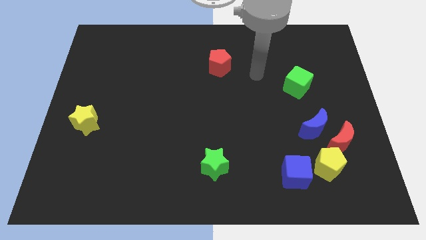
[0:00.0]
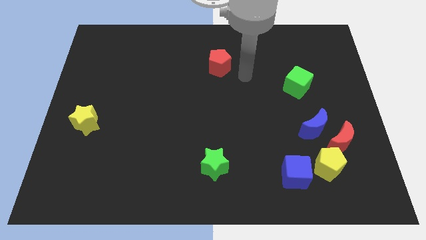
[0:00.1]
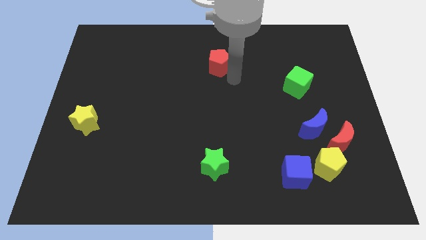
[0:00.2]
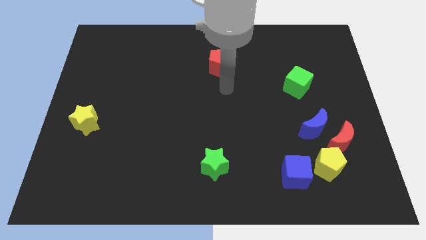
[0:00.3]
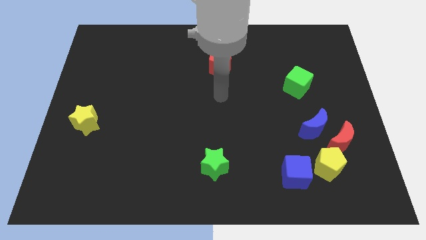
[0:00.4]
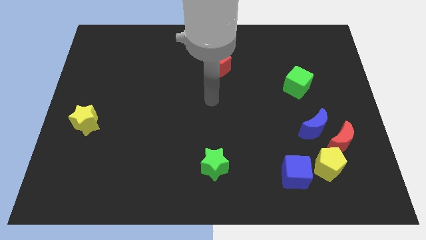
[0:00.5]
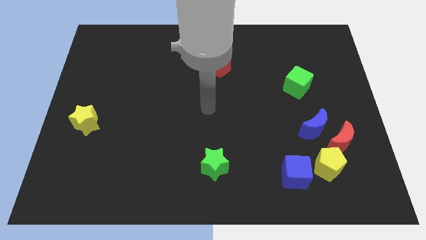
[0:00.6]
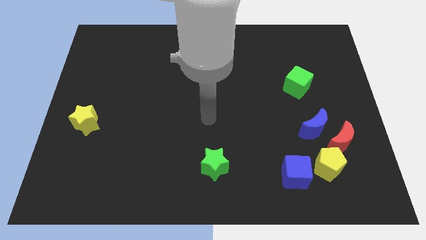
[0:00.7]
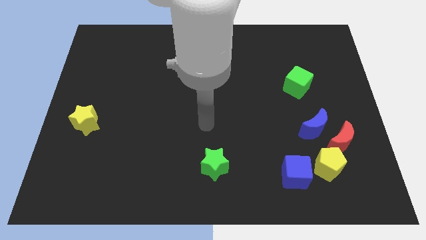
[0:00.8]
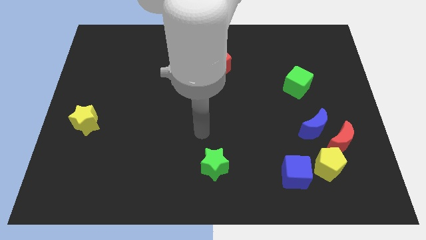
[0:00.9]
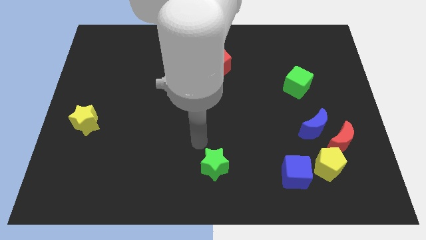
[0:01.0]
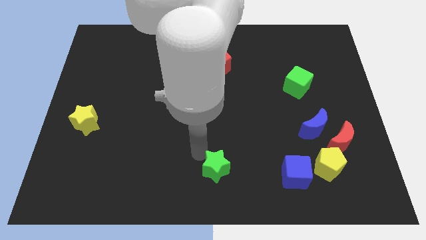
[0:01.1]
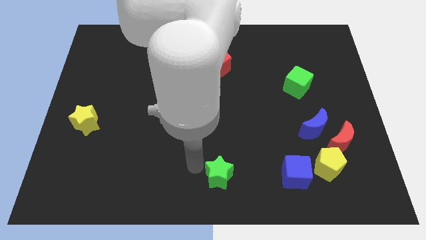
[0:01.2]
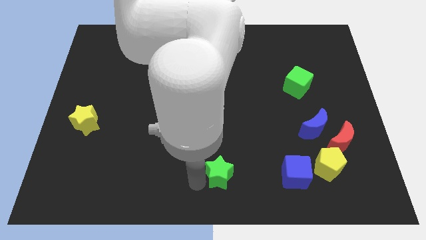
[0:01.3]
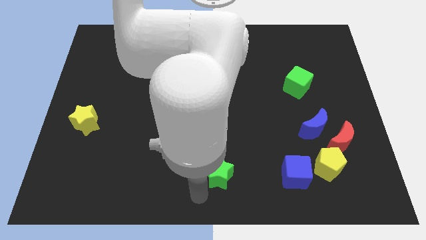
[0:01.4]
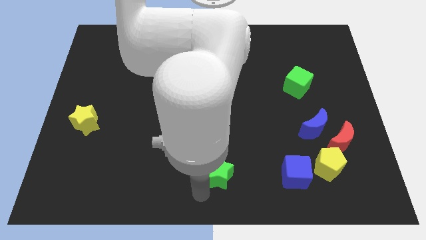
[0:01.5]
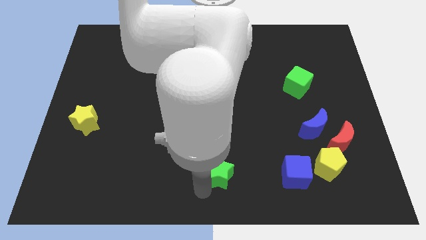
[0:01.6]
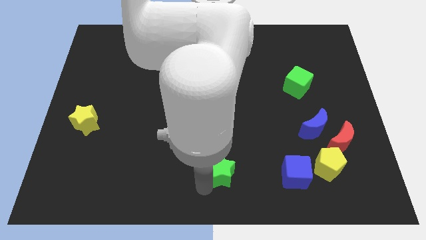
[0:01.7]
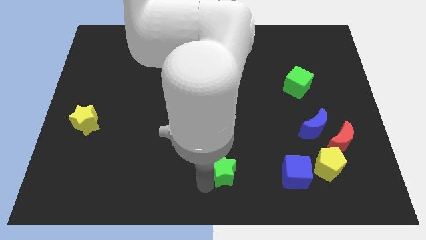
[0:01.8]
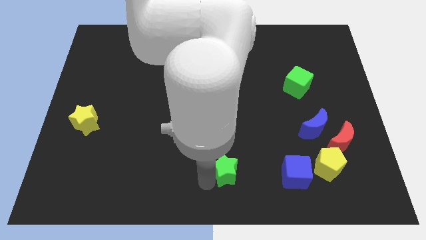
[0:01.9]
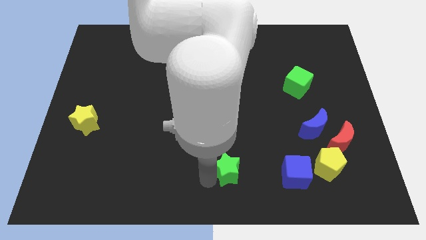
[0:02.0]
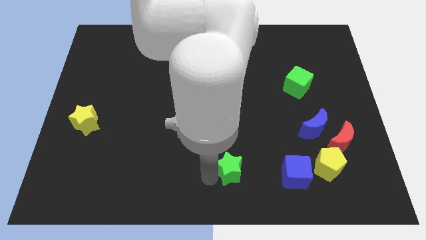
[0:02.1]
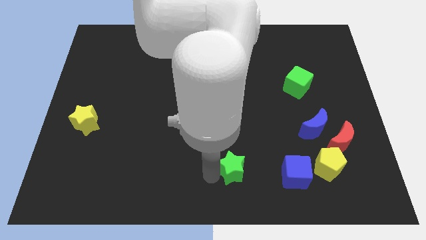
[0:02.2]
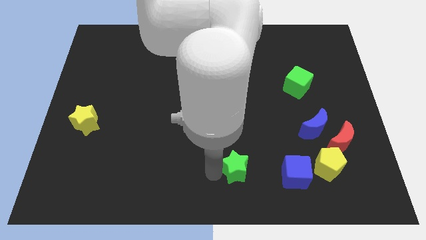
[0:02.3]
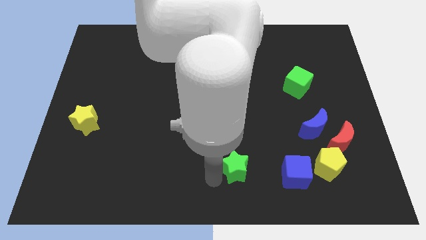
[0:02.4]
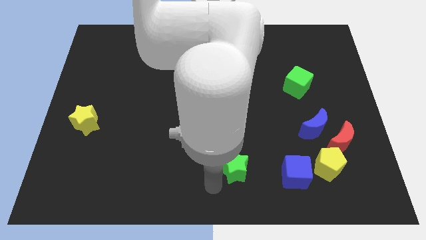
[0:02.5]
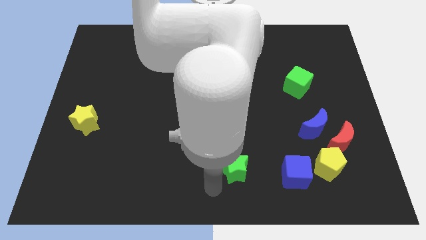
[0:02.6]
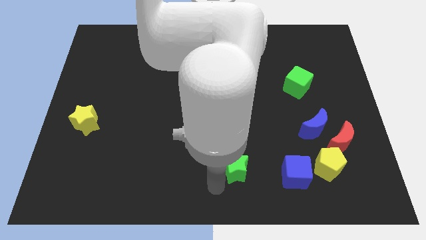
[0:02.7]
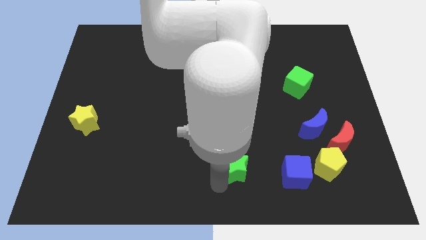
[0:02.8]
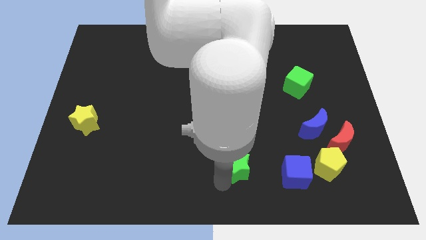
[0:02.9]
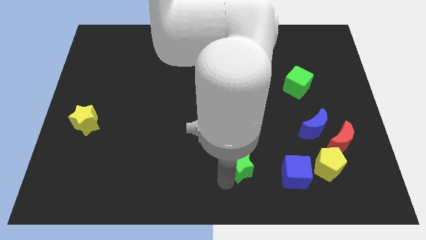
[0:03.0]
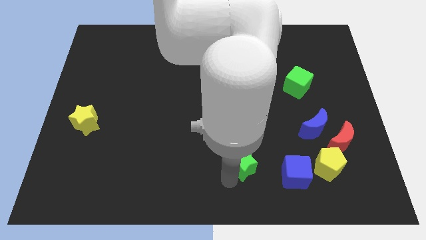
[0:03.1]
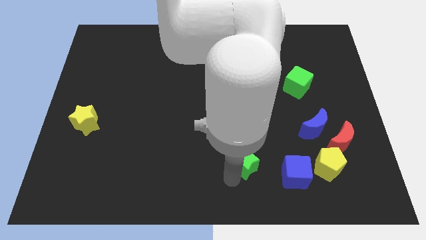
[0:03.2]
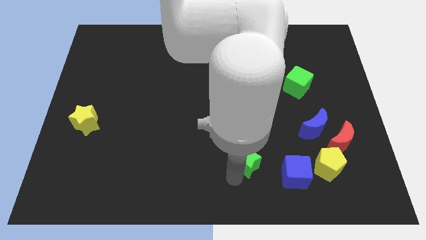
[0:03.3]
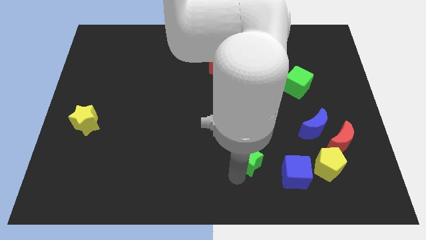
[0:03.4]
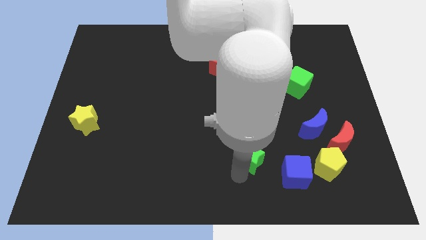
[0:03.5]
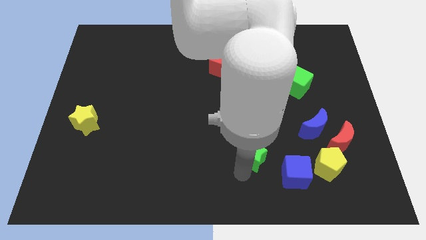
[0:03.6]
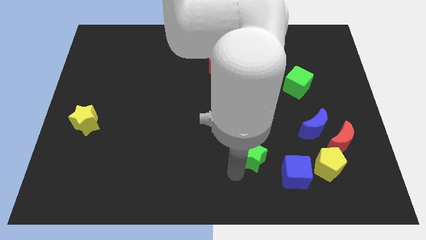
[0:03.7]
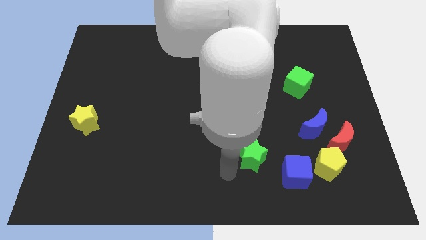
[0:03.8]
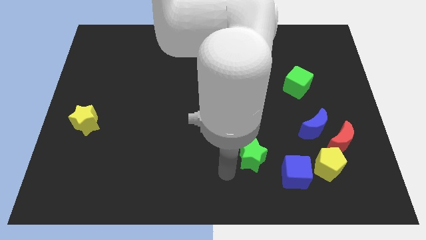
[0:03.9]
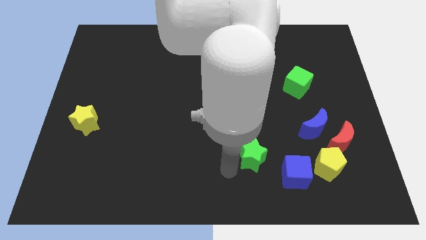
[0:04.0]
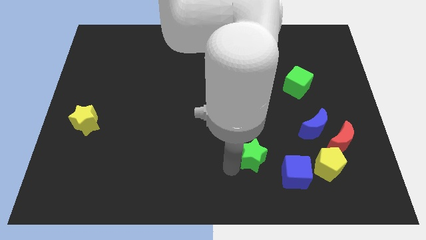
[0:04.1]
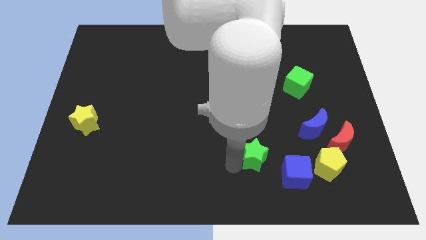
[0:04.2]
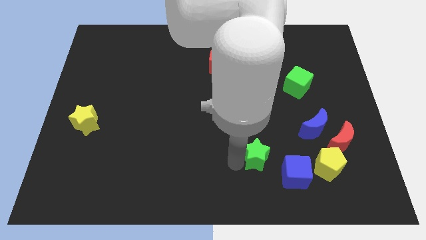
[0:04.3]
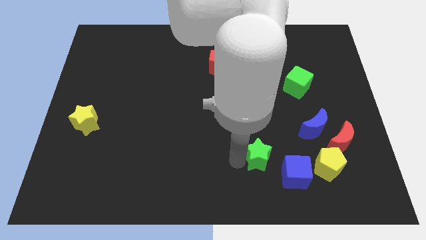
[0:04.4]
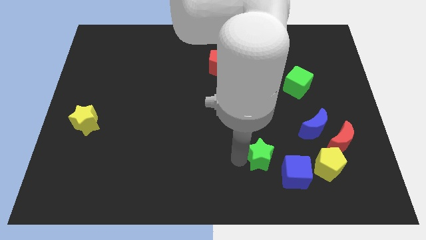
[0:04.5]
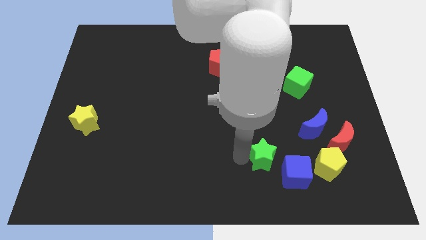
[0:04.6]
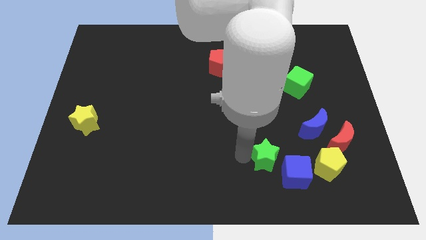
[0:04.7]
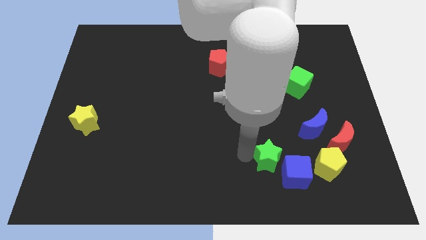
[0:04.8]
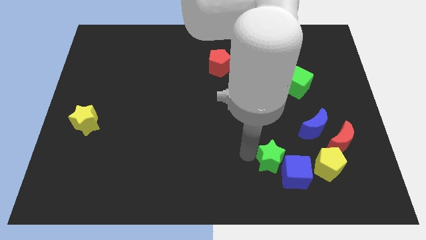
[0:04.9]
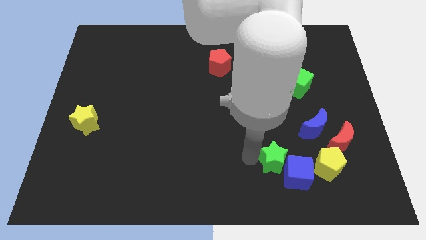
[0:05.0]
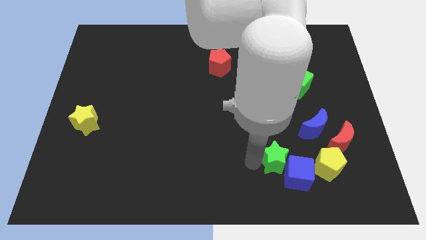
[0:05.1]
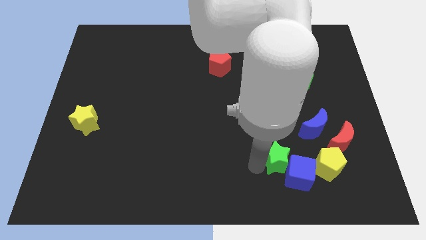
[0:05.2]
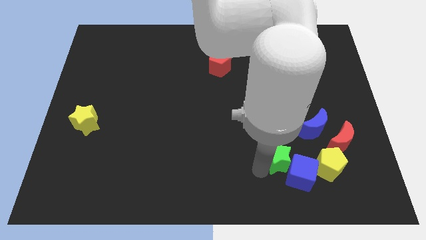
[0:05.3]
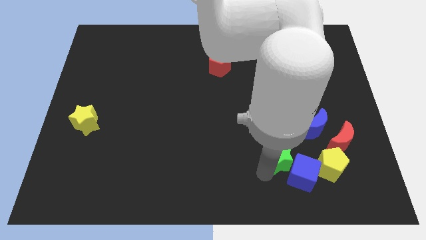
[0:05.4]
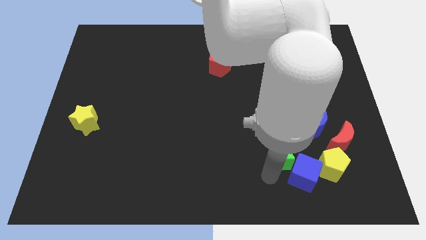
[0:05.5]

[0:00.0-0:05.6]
put the green star to the left of the red moon

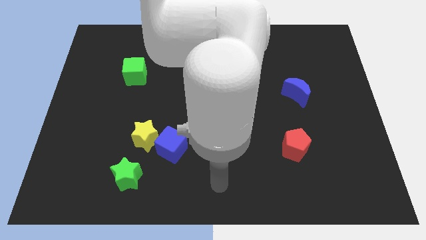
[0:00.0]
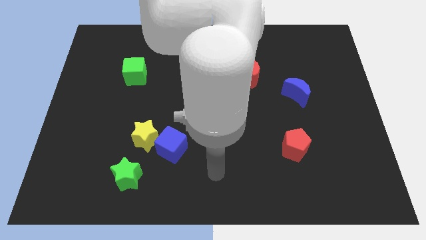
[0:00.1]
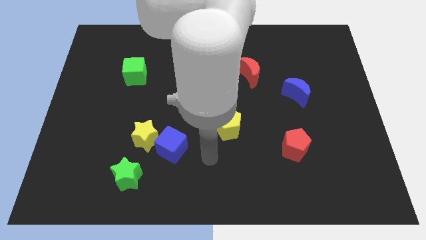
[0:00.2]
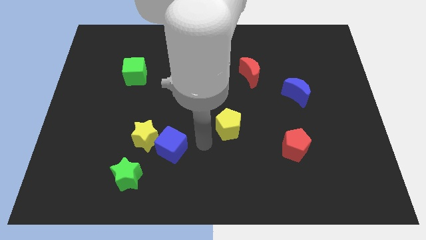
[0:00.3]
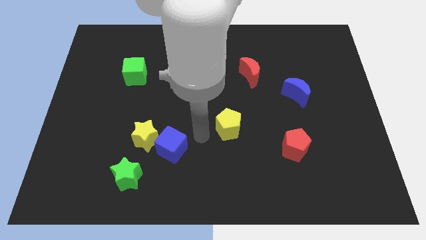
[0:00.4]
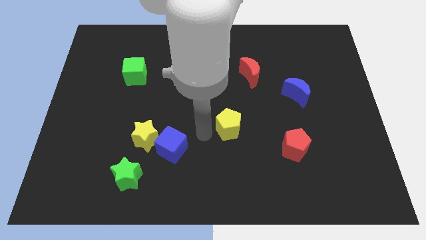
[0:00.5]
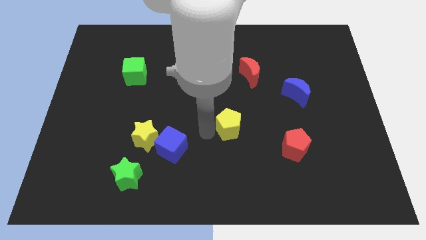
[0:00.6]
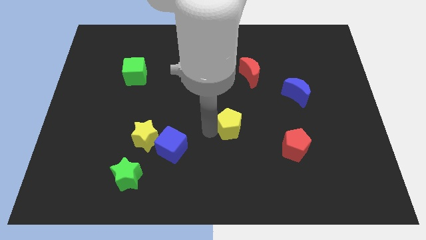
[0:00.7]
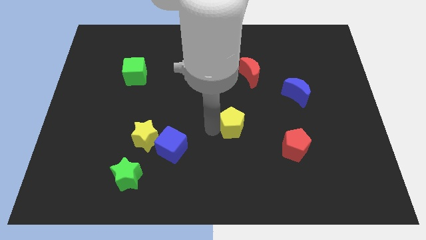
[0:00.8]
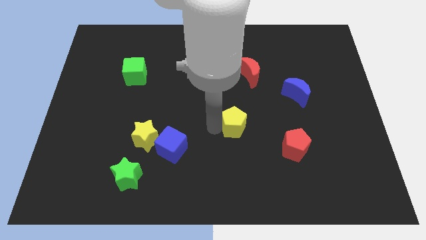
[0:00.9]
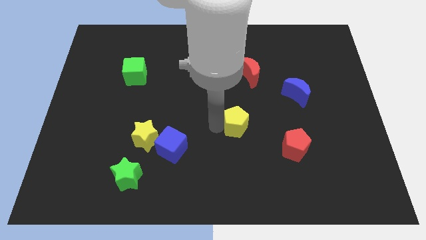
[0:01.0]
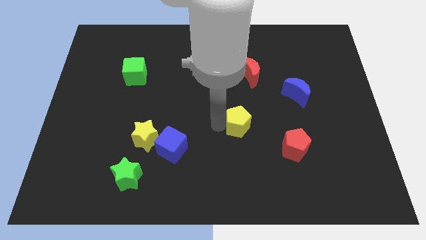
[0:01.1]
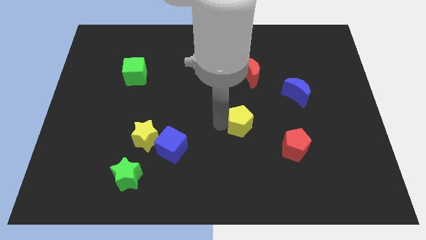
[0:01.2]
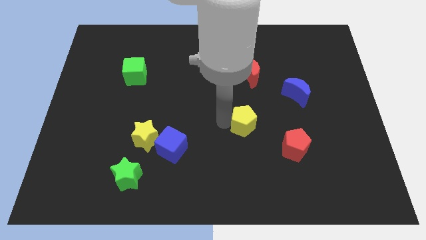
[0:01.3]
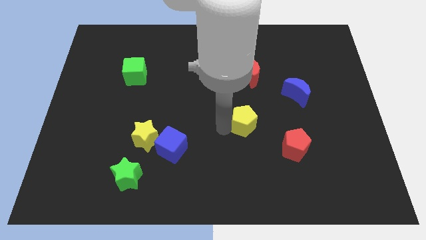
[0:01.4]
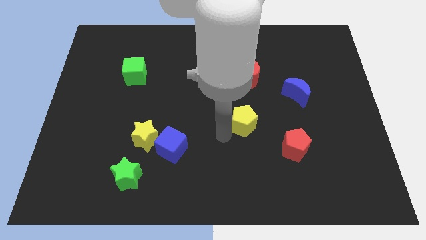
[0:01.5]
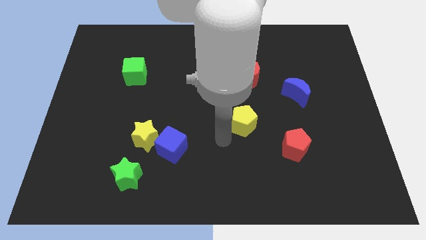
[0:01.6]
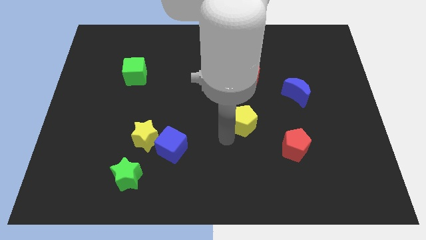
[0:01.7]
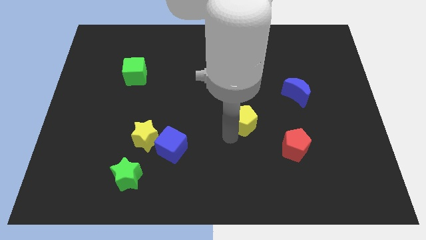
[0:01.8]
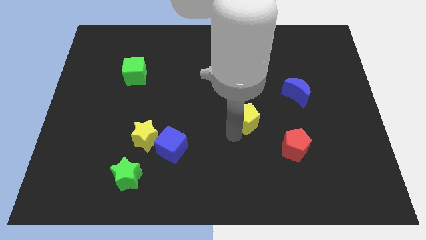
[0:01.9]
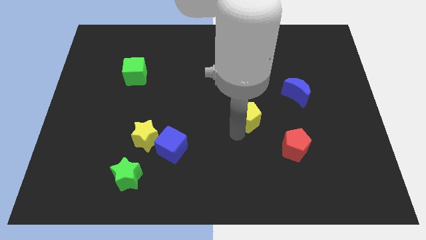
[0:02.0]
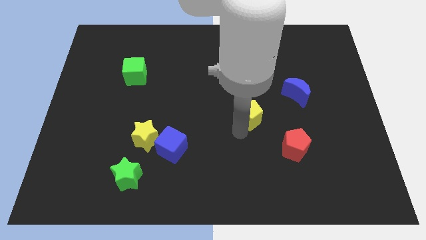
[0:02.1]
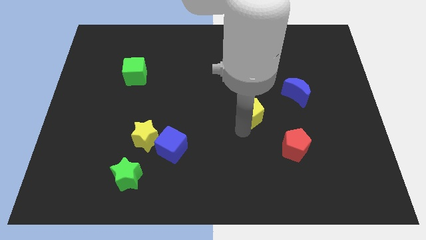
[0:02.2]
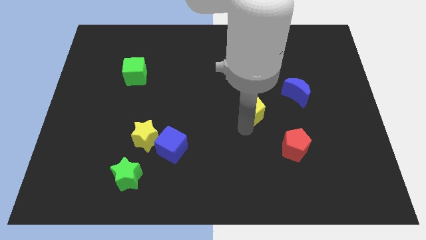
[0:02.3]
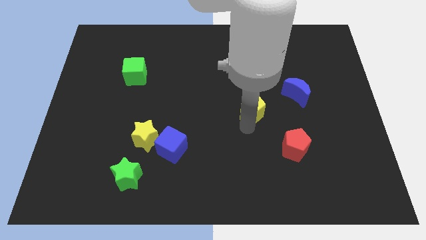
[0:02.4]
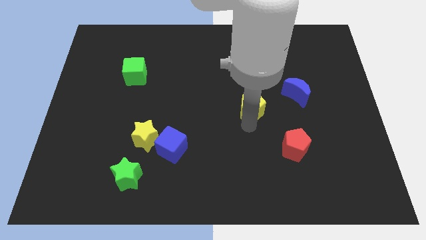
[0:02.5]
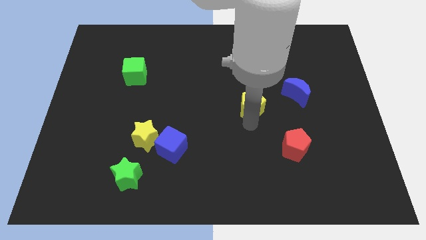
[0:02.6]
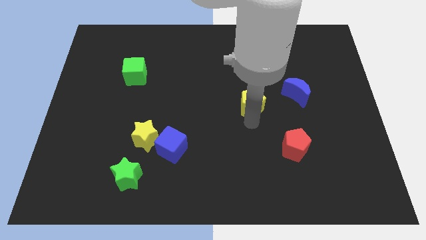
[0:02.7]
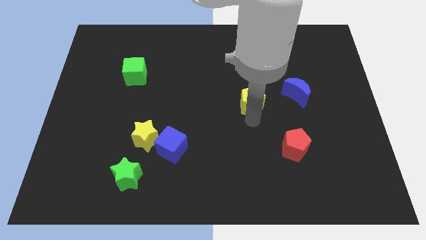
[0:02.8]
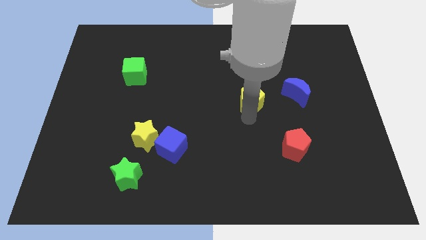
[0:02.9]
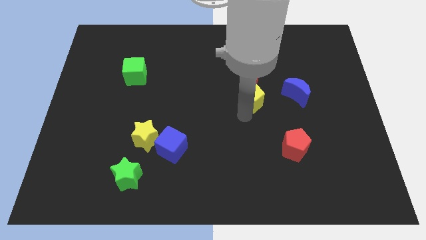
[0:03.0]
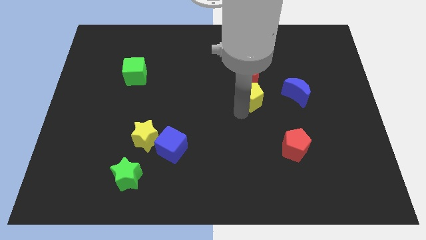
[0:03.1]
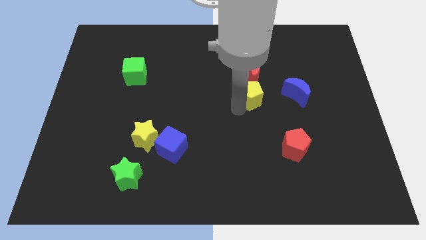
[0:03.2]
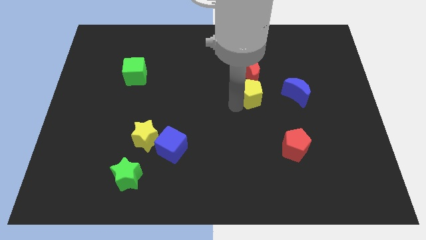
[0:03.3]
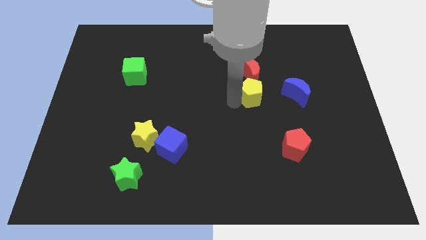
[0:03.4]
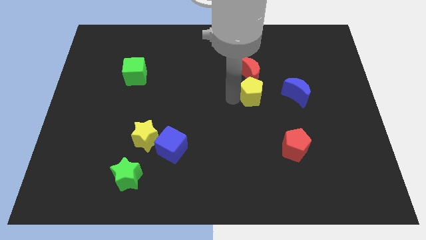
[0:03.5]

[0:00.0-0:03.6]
push the yellow pentagon diagonally down and to the right of the red moon

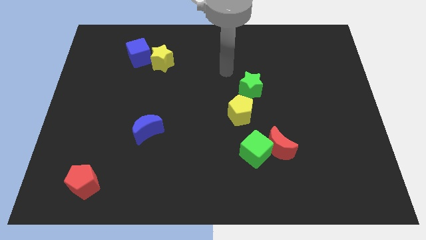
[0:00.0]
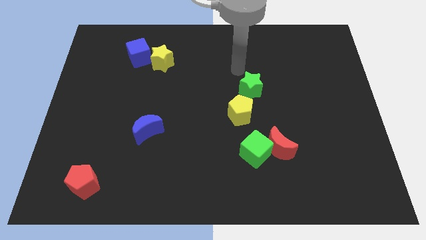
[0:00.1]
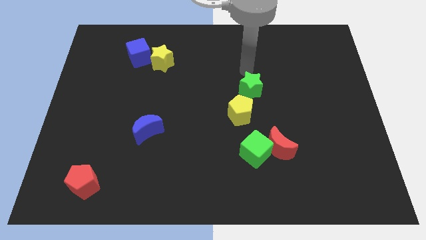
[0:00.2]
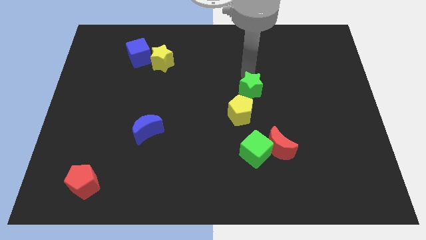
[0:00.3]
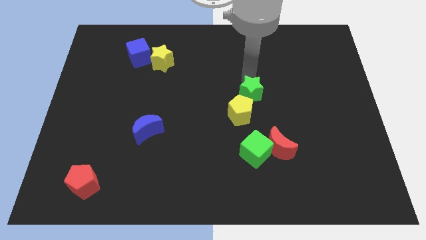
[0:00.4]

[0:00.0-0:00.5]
move the green star to the top of the green cube
